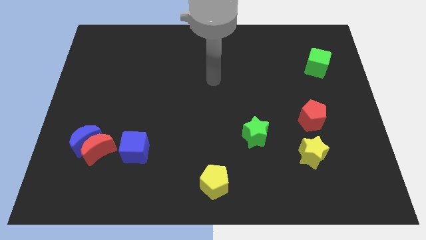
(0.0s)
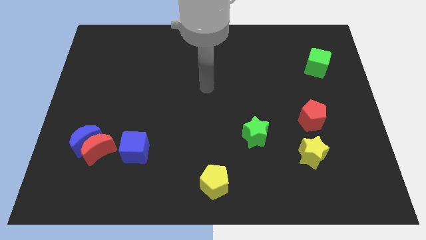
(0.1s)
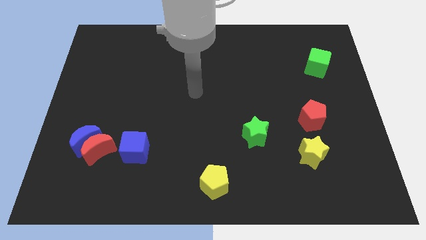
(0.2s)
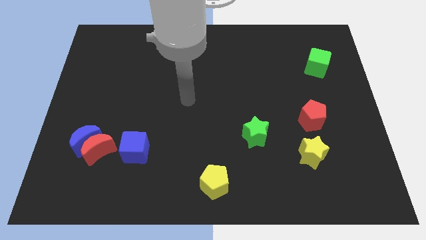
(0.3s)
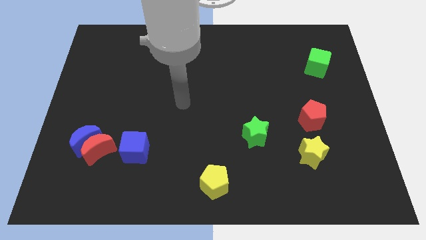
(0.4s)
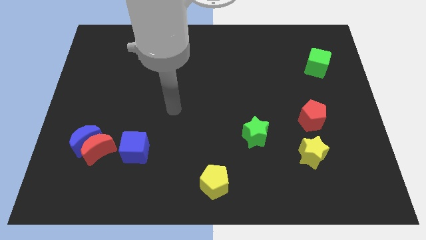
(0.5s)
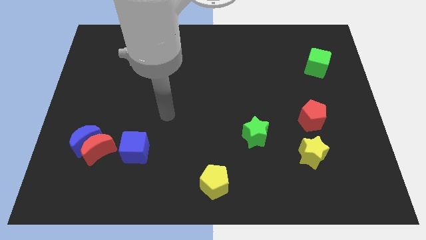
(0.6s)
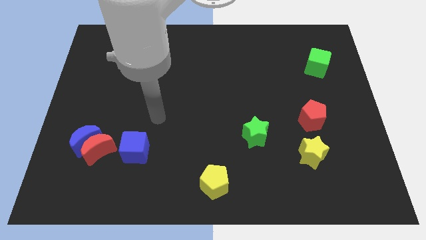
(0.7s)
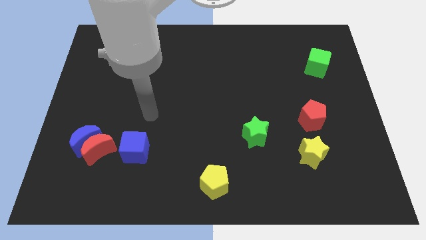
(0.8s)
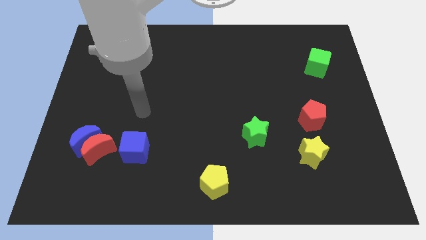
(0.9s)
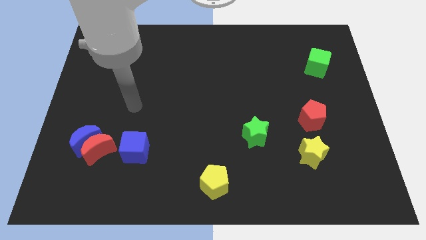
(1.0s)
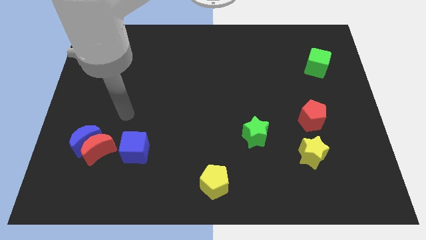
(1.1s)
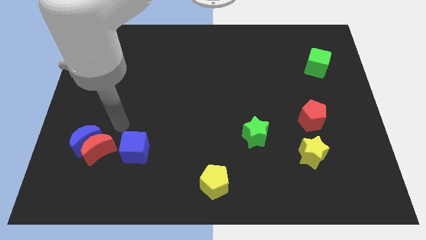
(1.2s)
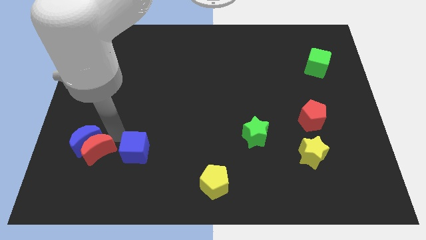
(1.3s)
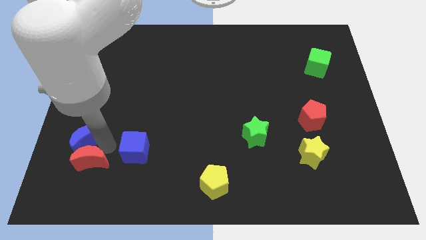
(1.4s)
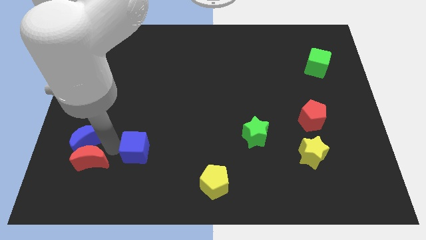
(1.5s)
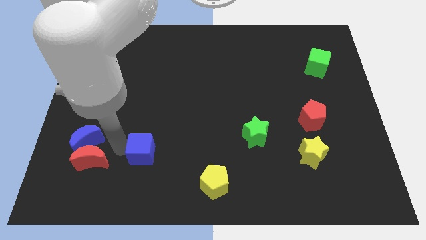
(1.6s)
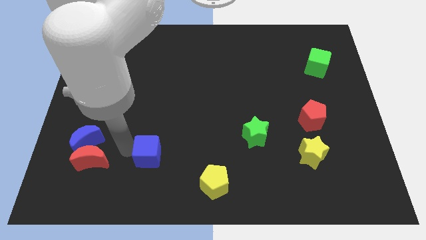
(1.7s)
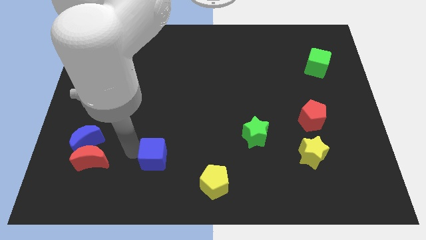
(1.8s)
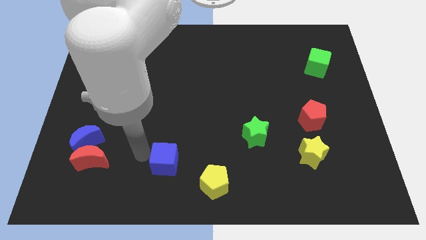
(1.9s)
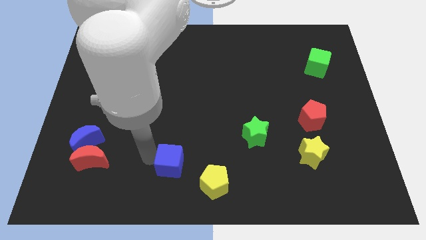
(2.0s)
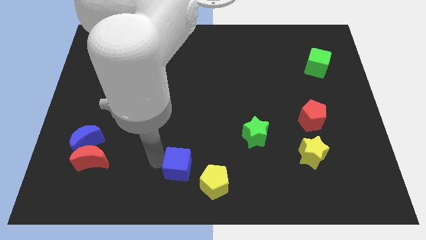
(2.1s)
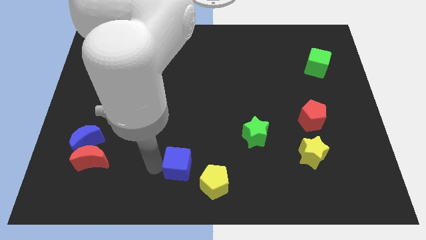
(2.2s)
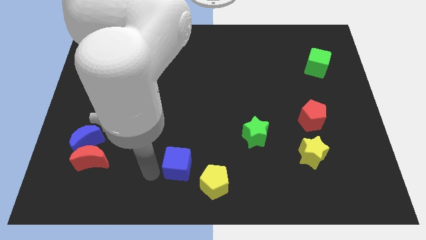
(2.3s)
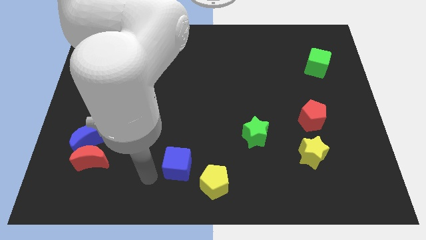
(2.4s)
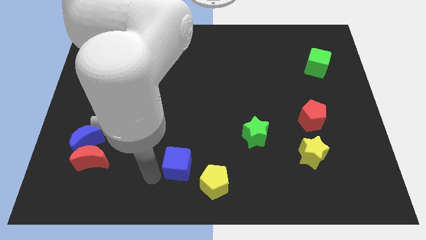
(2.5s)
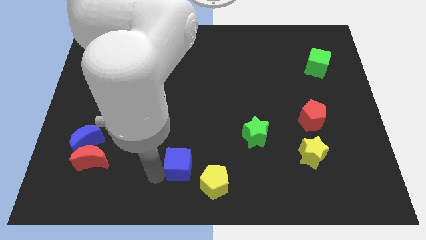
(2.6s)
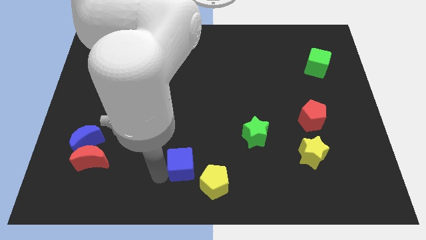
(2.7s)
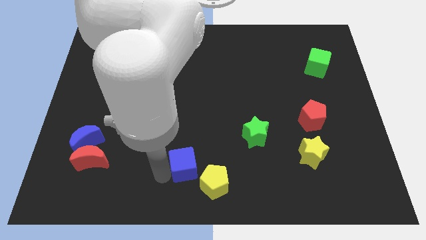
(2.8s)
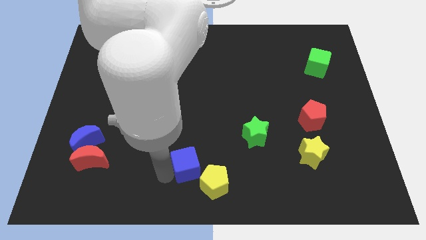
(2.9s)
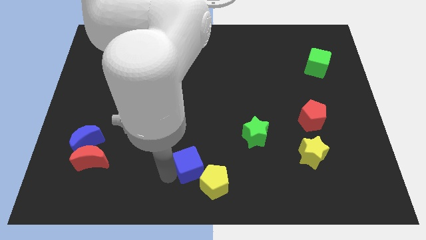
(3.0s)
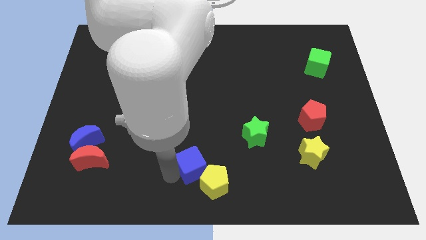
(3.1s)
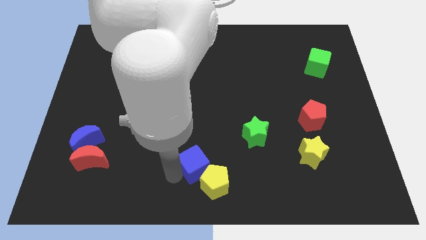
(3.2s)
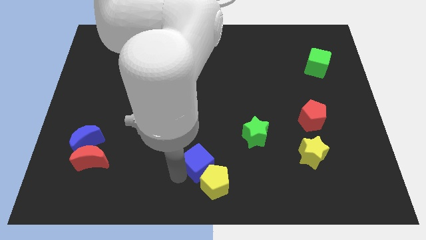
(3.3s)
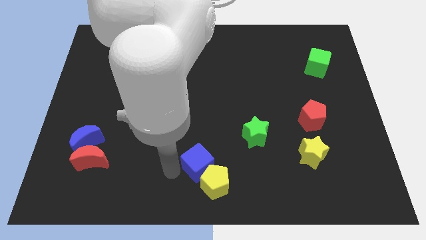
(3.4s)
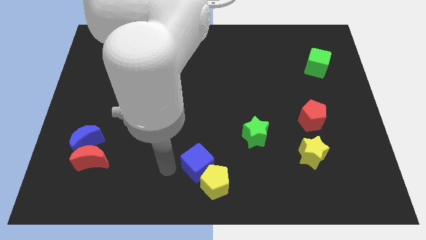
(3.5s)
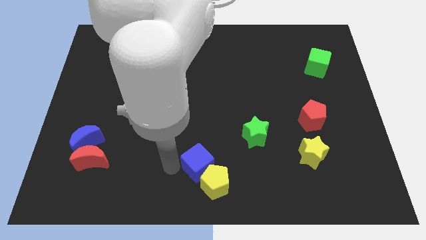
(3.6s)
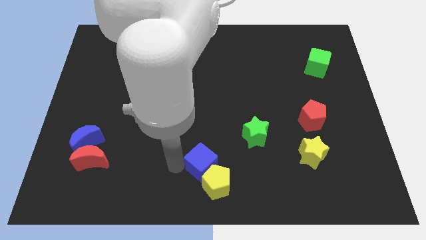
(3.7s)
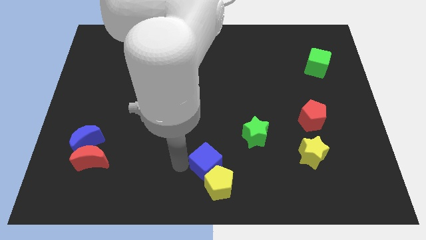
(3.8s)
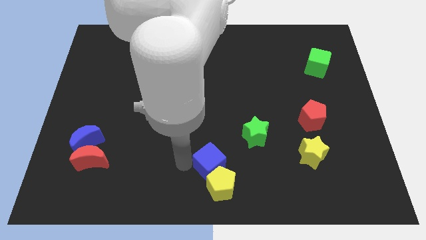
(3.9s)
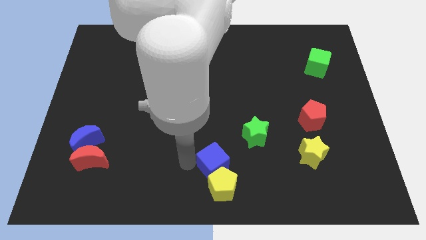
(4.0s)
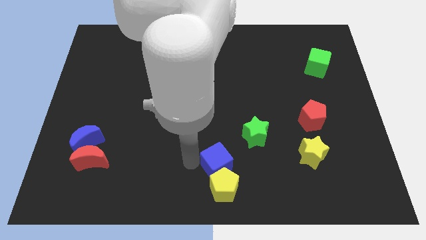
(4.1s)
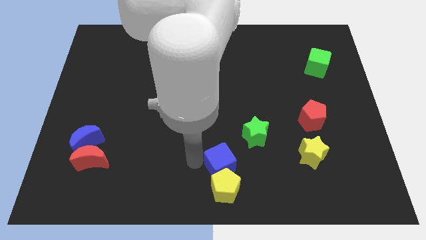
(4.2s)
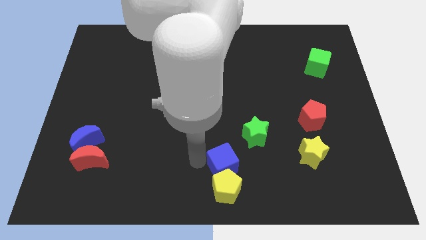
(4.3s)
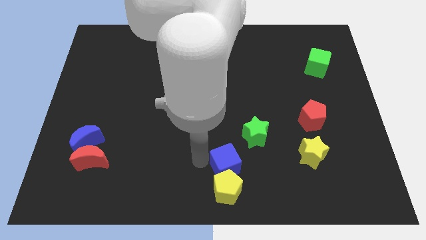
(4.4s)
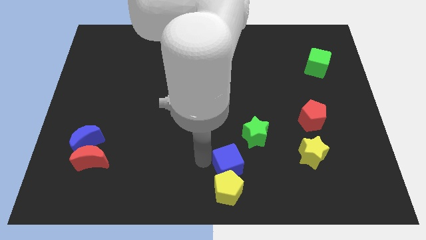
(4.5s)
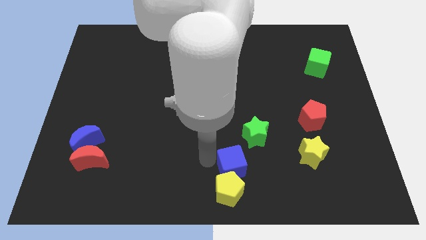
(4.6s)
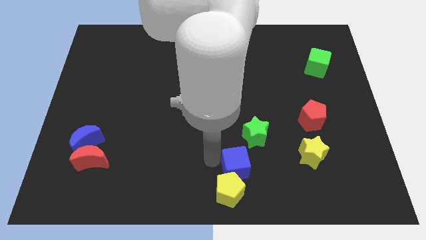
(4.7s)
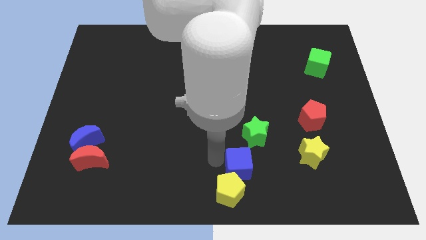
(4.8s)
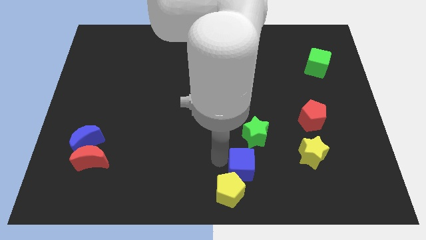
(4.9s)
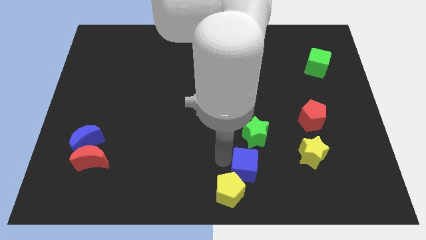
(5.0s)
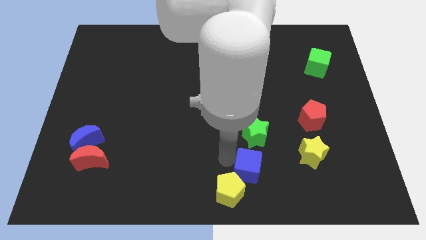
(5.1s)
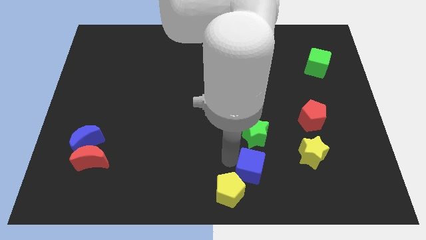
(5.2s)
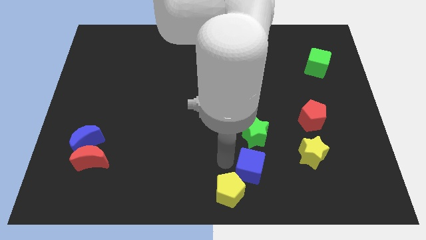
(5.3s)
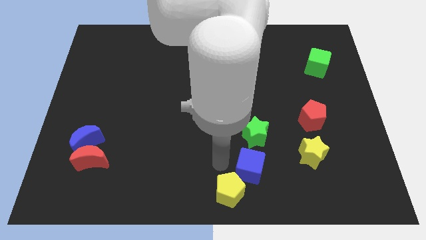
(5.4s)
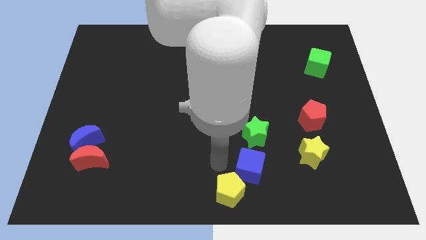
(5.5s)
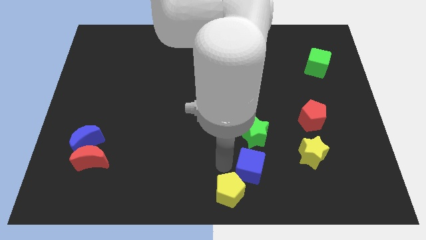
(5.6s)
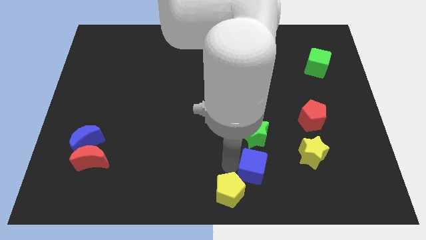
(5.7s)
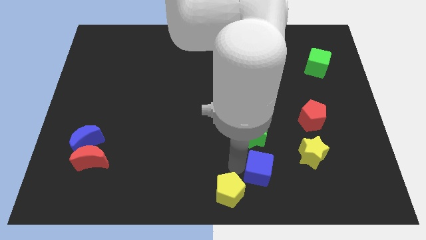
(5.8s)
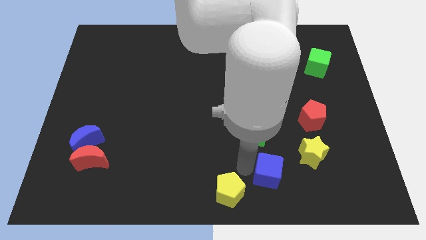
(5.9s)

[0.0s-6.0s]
move the blue cube to the bottom left side of the yellow star
